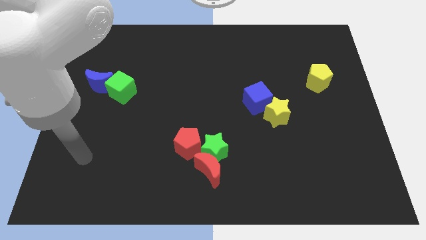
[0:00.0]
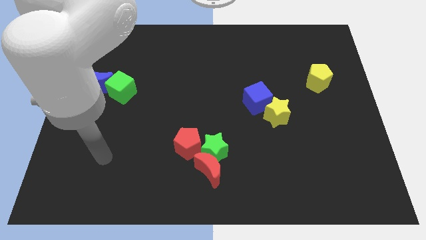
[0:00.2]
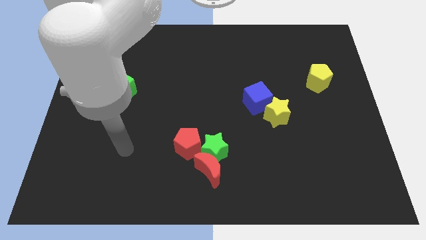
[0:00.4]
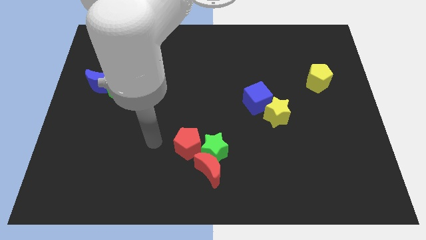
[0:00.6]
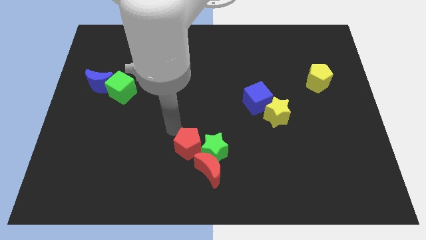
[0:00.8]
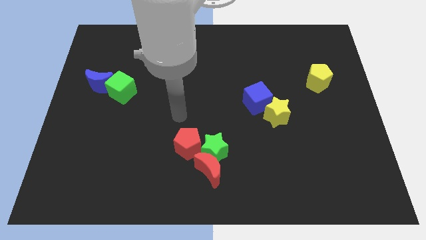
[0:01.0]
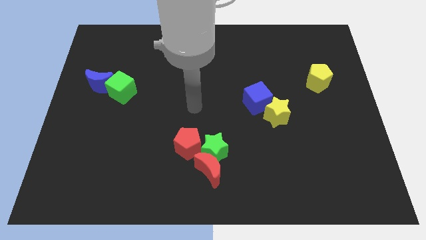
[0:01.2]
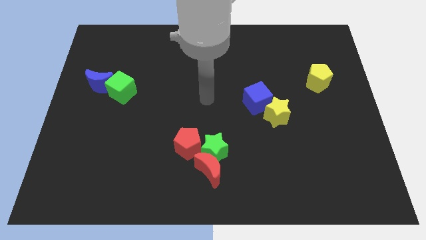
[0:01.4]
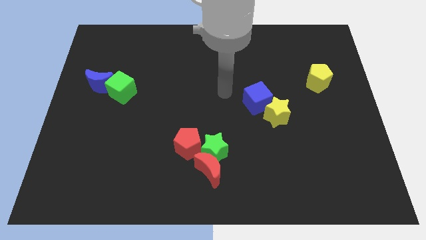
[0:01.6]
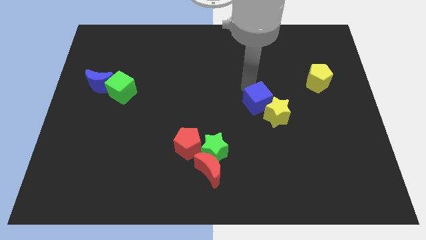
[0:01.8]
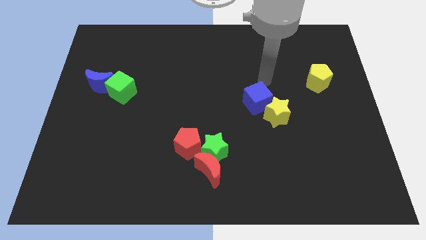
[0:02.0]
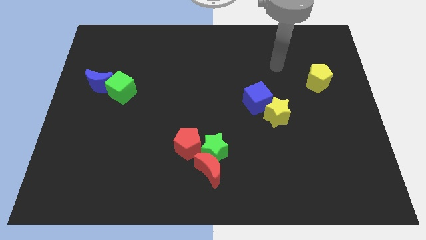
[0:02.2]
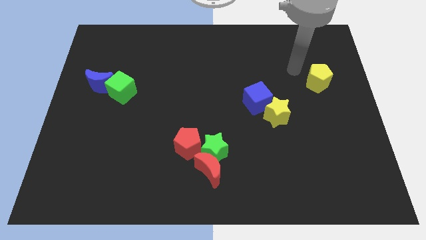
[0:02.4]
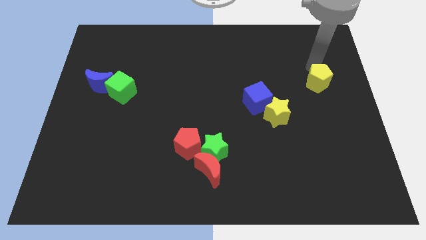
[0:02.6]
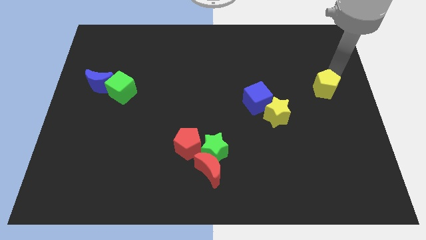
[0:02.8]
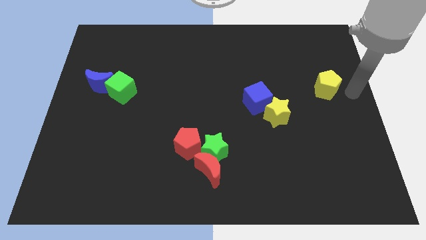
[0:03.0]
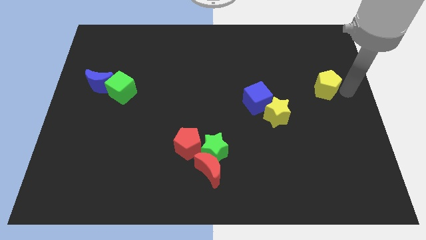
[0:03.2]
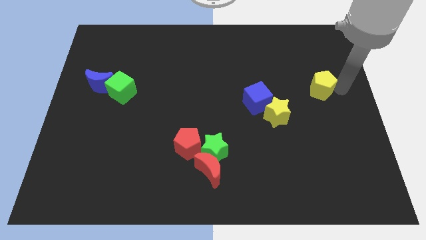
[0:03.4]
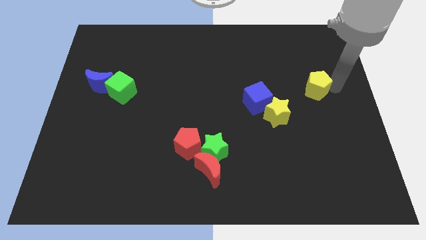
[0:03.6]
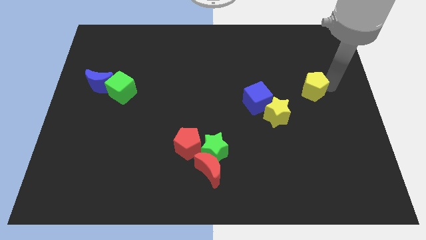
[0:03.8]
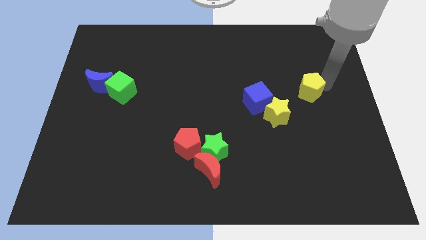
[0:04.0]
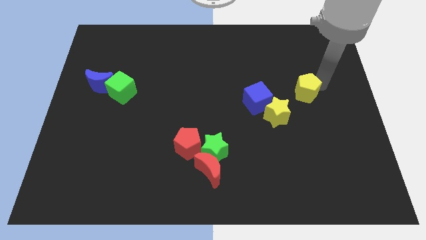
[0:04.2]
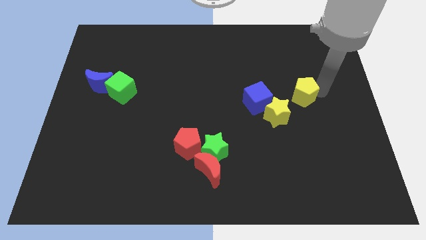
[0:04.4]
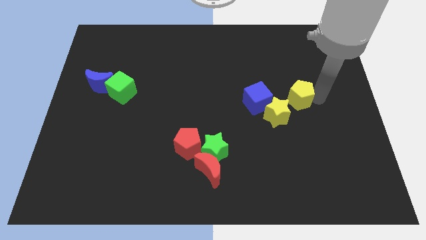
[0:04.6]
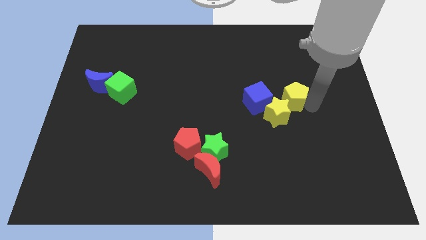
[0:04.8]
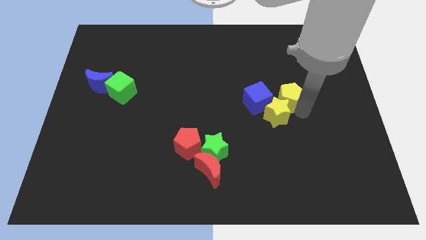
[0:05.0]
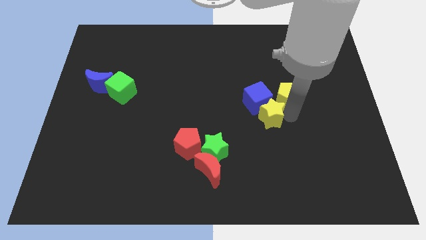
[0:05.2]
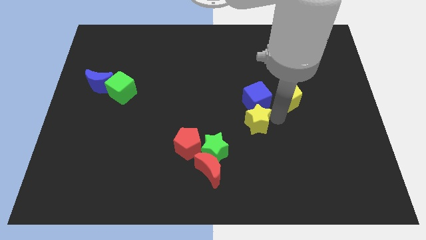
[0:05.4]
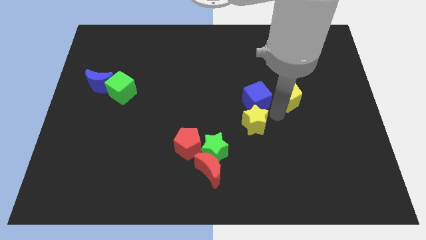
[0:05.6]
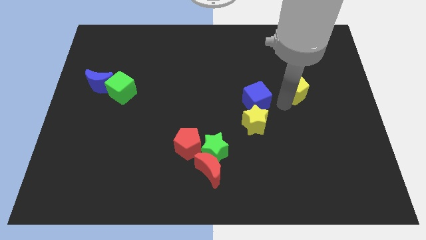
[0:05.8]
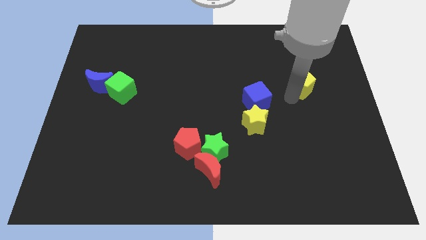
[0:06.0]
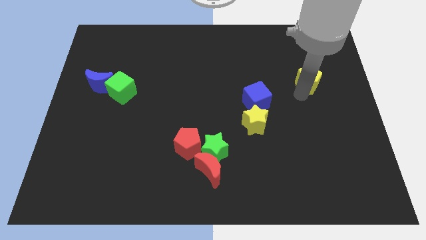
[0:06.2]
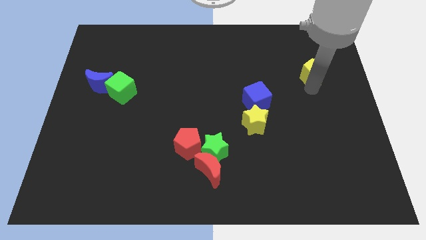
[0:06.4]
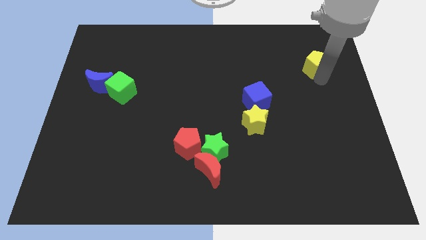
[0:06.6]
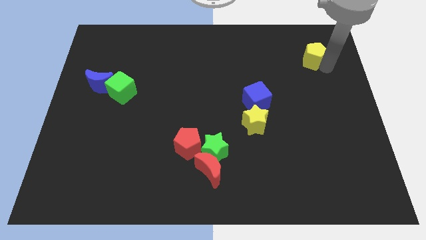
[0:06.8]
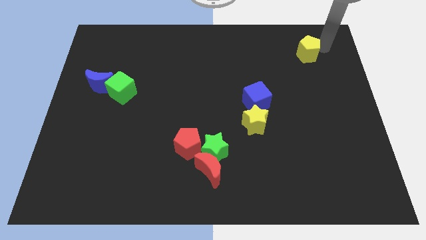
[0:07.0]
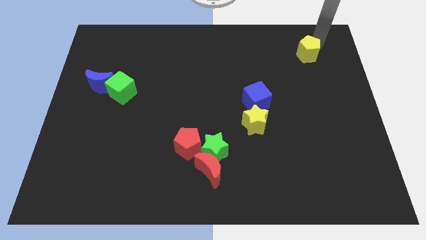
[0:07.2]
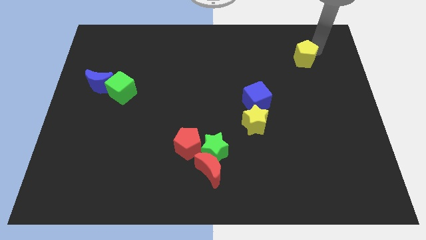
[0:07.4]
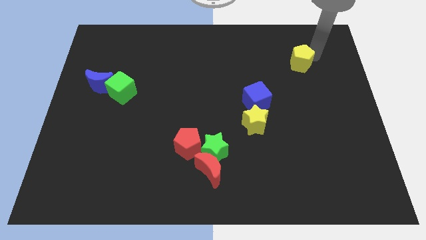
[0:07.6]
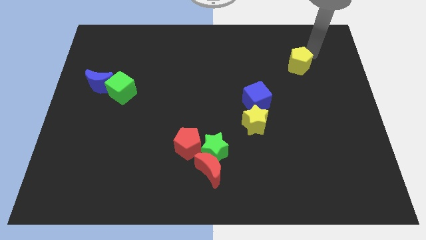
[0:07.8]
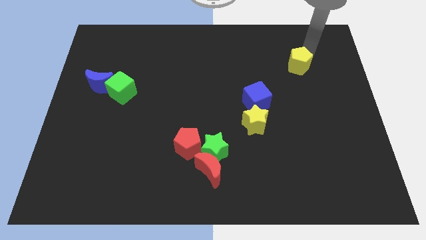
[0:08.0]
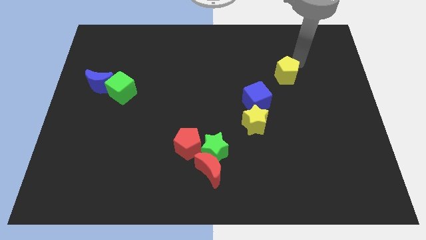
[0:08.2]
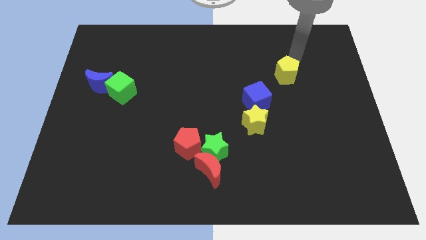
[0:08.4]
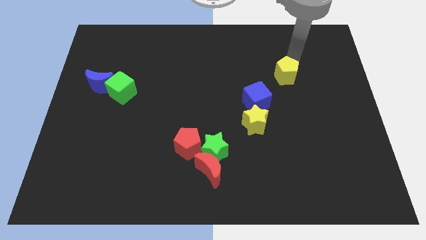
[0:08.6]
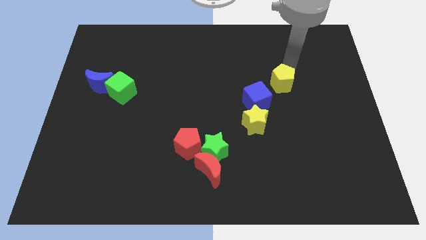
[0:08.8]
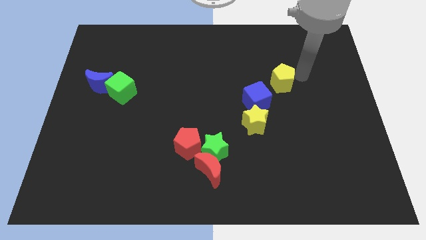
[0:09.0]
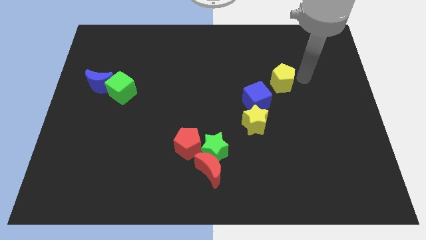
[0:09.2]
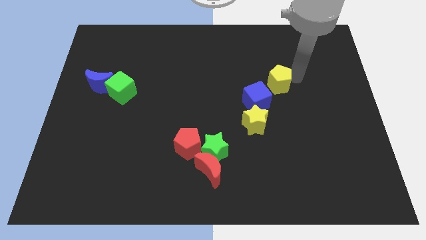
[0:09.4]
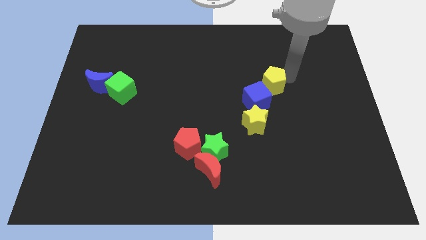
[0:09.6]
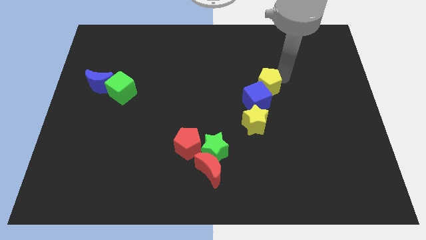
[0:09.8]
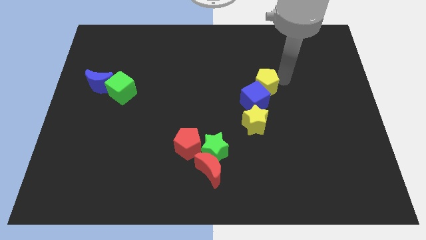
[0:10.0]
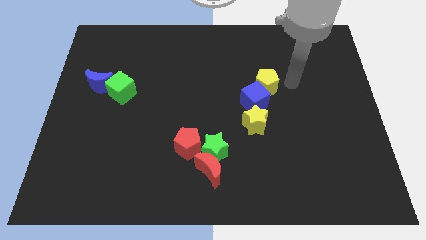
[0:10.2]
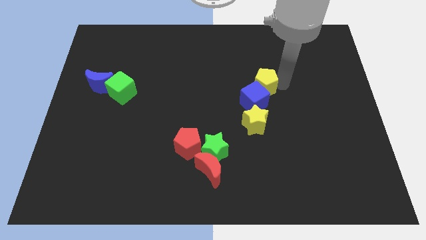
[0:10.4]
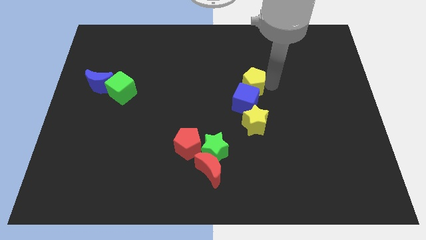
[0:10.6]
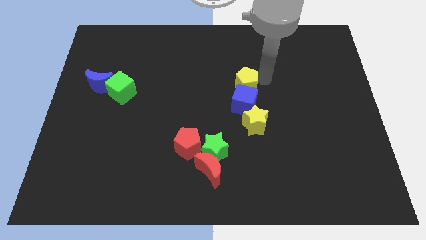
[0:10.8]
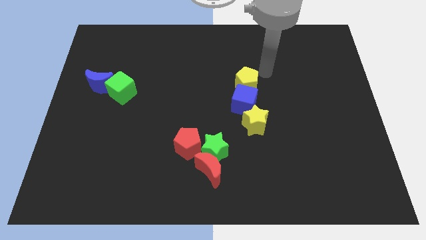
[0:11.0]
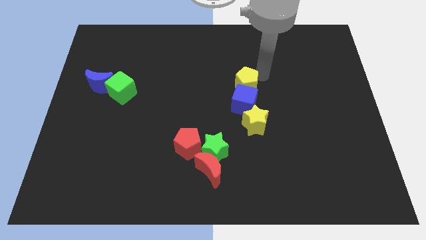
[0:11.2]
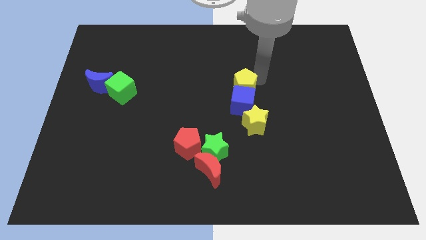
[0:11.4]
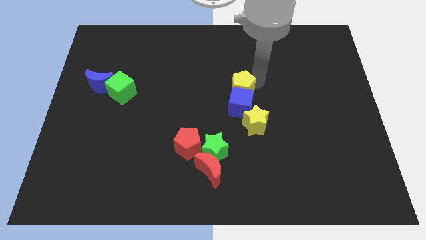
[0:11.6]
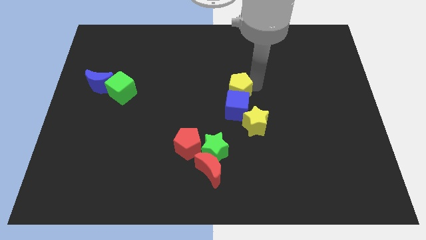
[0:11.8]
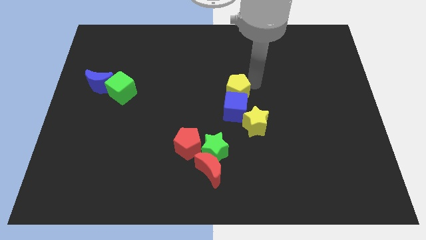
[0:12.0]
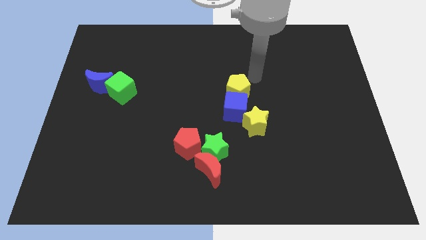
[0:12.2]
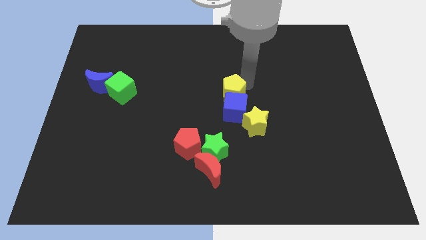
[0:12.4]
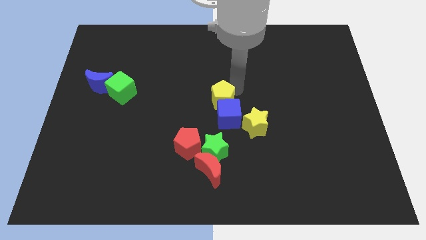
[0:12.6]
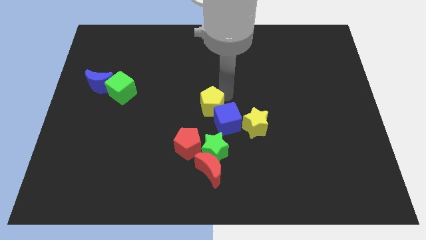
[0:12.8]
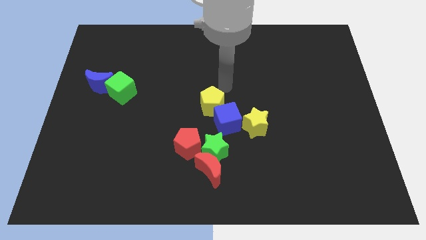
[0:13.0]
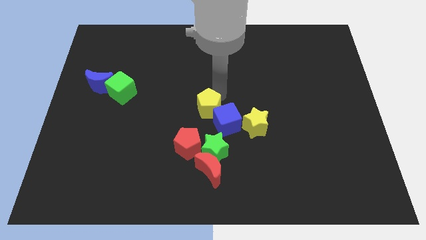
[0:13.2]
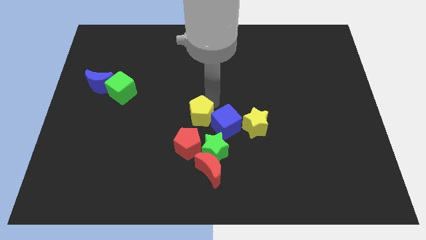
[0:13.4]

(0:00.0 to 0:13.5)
move the yellow pentagon to the top left of the green star
